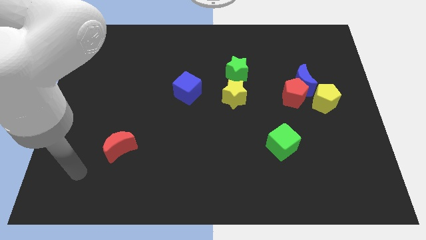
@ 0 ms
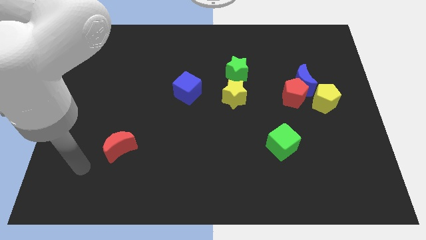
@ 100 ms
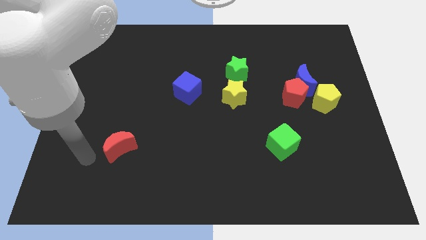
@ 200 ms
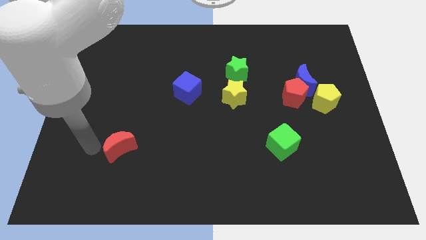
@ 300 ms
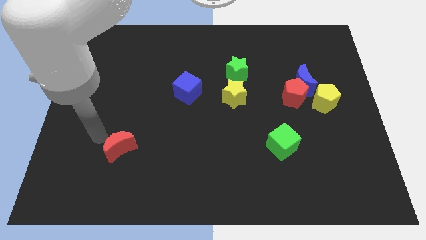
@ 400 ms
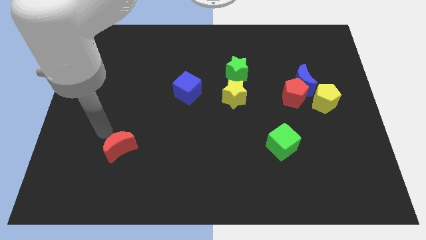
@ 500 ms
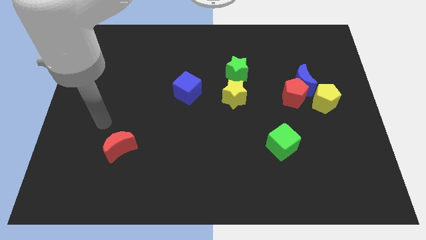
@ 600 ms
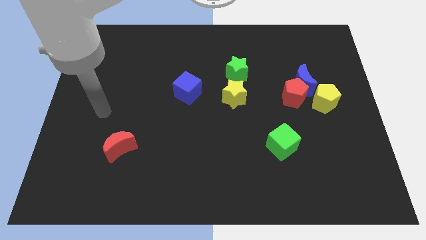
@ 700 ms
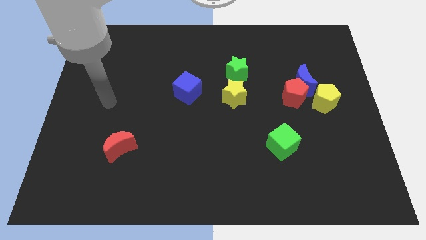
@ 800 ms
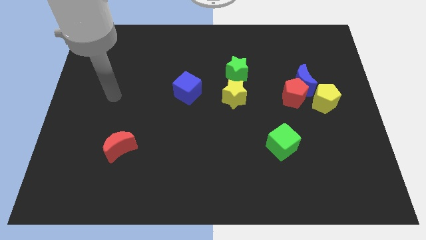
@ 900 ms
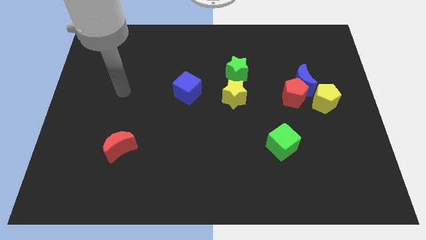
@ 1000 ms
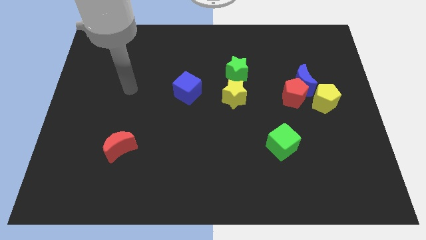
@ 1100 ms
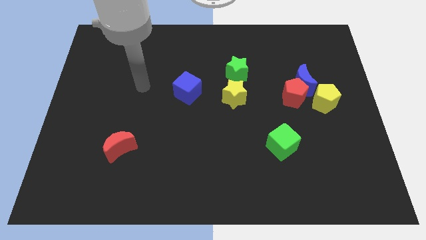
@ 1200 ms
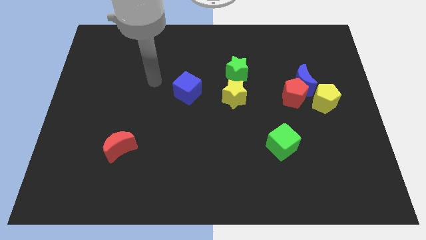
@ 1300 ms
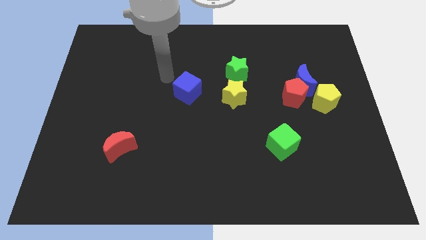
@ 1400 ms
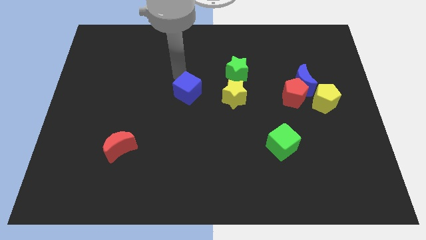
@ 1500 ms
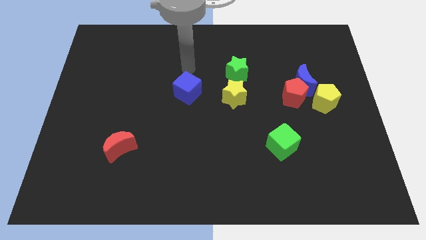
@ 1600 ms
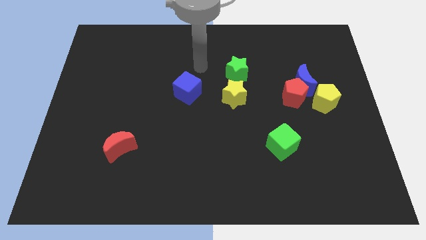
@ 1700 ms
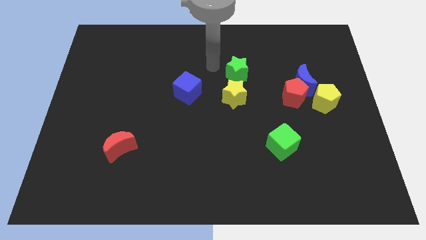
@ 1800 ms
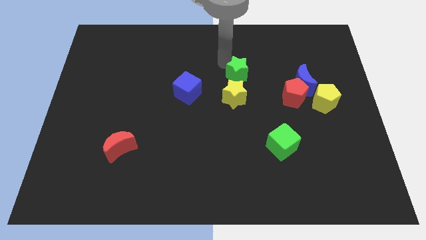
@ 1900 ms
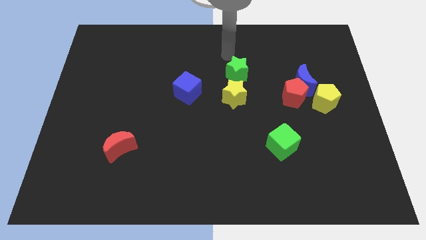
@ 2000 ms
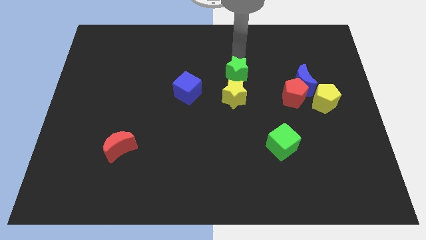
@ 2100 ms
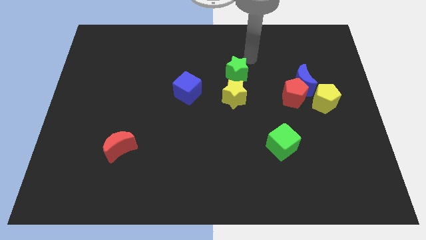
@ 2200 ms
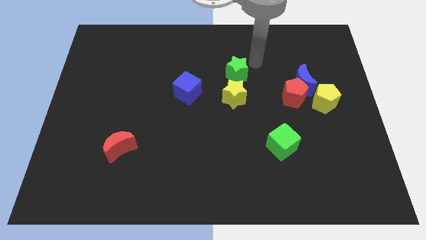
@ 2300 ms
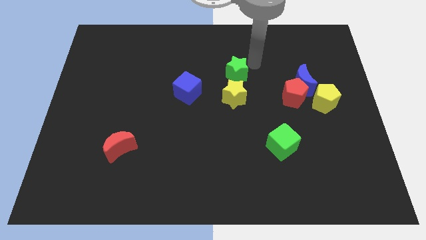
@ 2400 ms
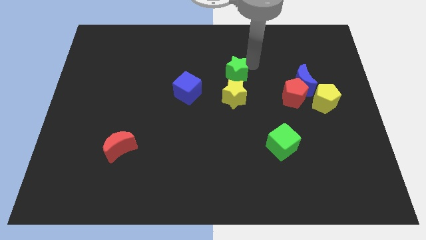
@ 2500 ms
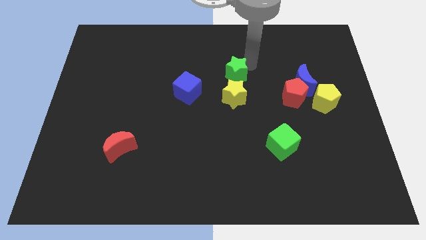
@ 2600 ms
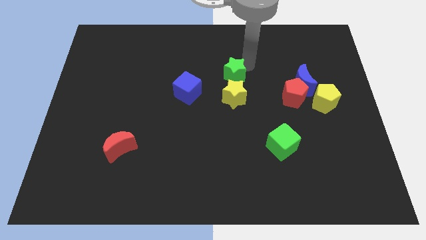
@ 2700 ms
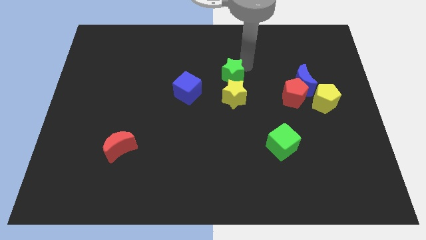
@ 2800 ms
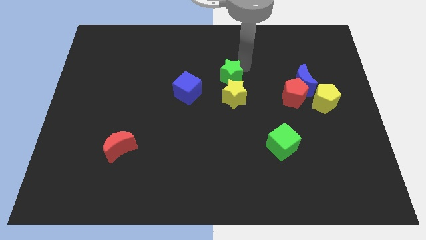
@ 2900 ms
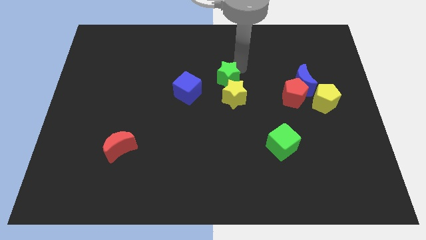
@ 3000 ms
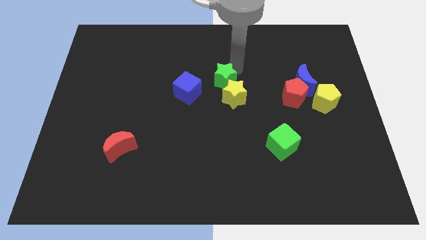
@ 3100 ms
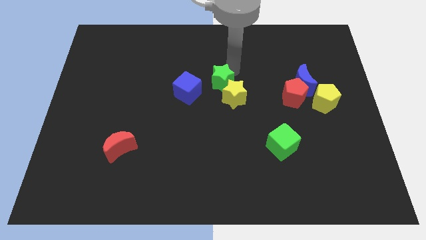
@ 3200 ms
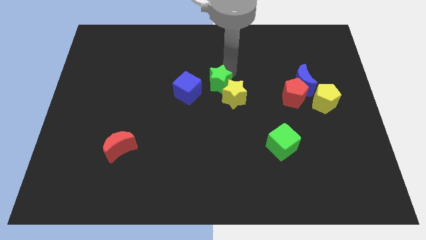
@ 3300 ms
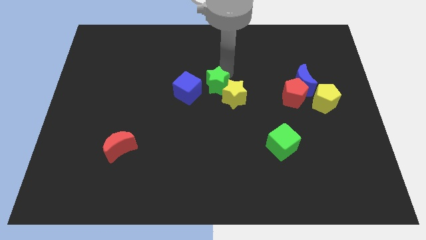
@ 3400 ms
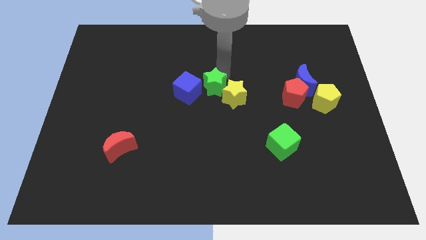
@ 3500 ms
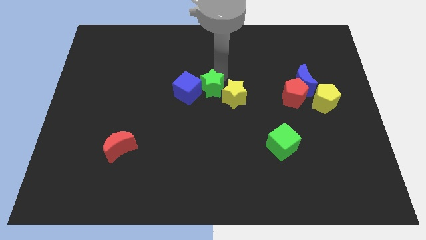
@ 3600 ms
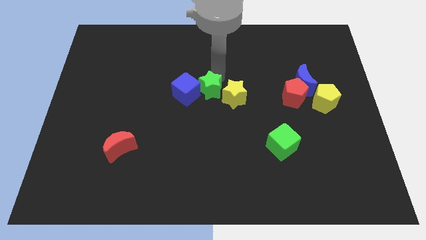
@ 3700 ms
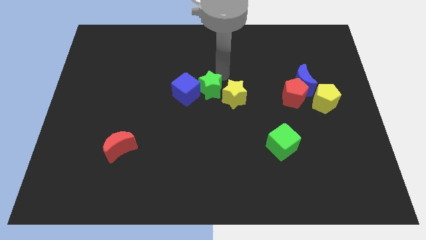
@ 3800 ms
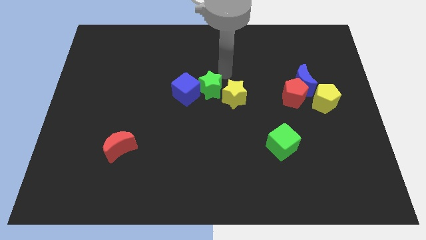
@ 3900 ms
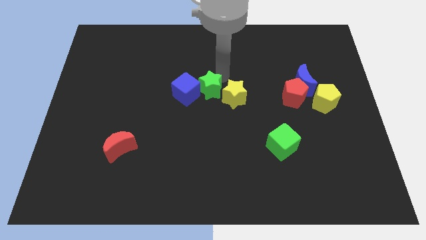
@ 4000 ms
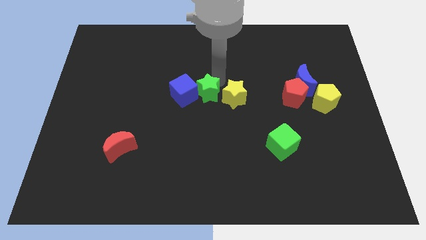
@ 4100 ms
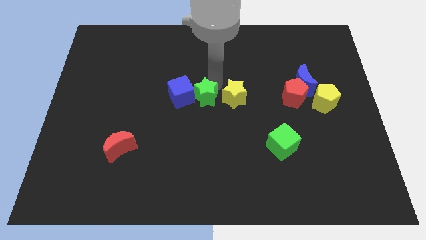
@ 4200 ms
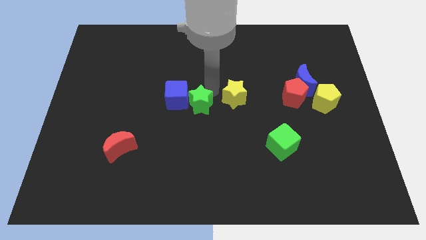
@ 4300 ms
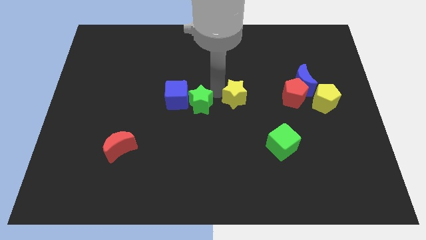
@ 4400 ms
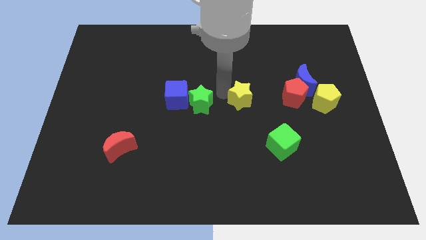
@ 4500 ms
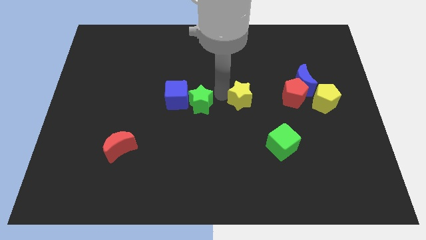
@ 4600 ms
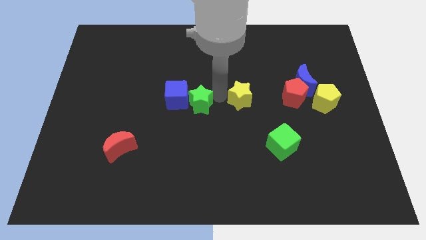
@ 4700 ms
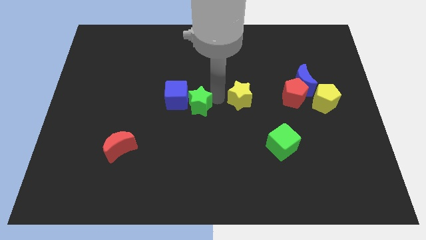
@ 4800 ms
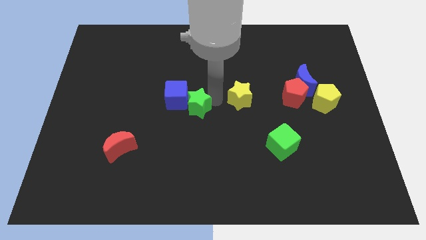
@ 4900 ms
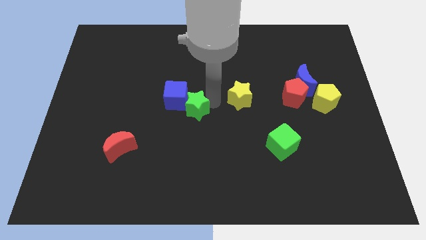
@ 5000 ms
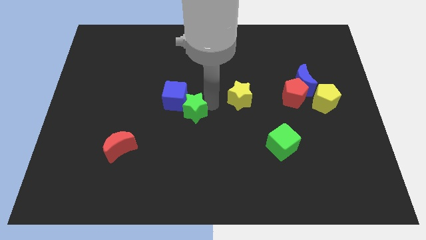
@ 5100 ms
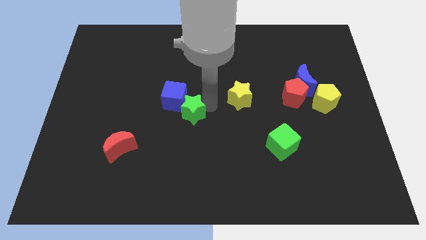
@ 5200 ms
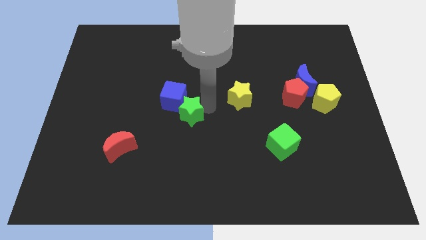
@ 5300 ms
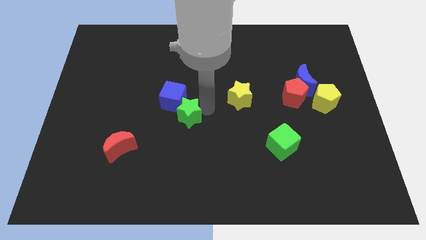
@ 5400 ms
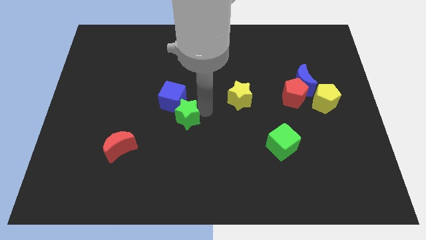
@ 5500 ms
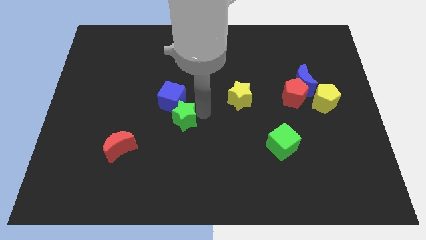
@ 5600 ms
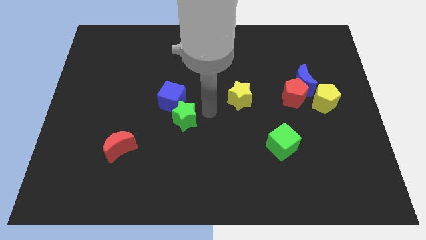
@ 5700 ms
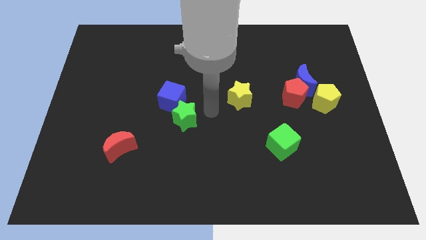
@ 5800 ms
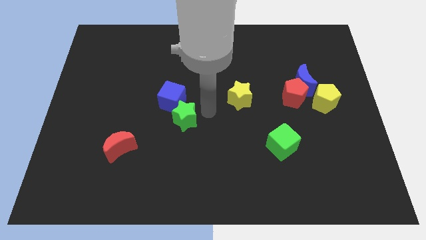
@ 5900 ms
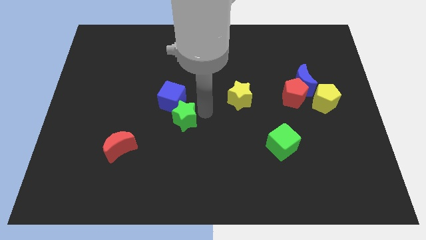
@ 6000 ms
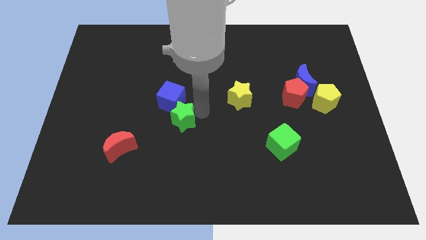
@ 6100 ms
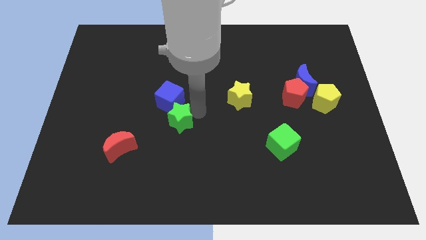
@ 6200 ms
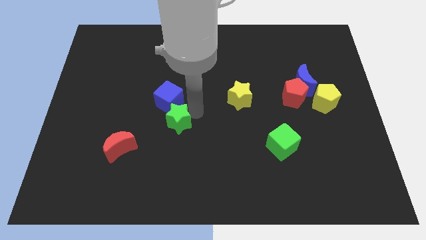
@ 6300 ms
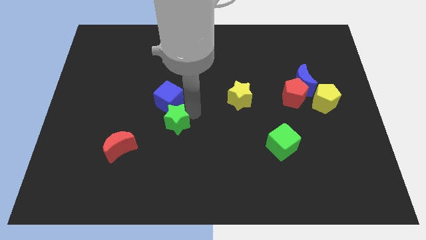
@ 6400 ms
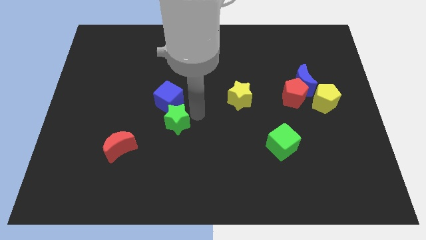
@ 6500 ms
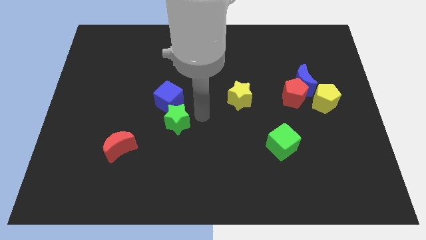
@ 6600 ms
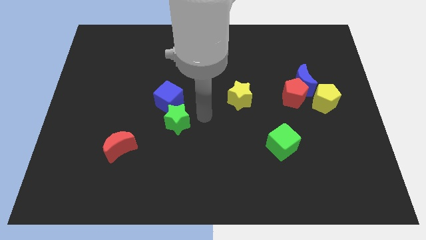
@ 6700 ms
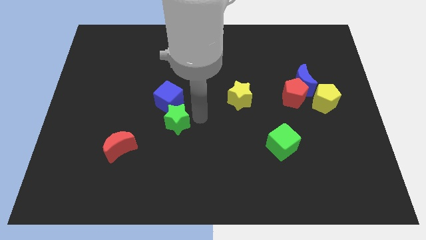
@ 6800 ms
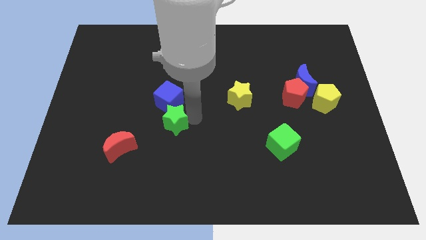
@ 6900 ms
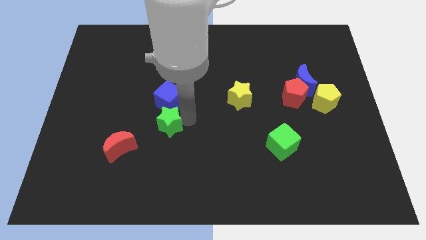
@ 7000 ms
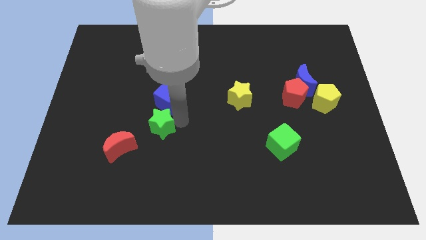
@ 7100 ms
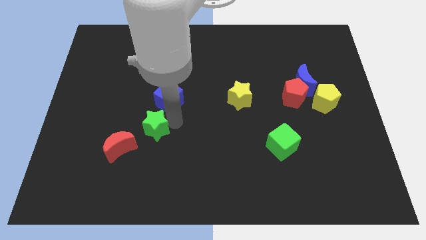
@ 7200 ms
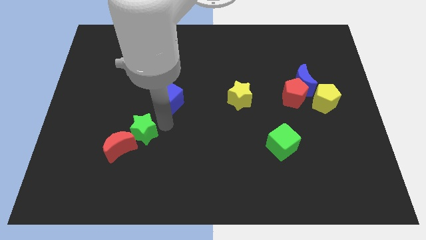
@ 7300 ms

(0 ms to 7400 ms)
slide the green star towards the red moon
